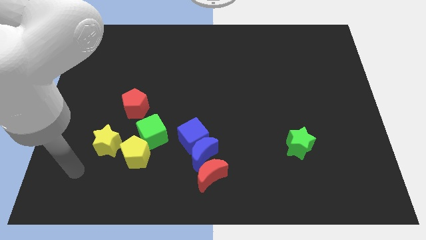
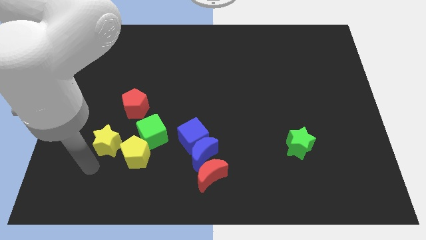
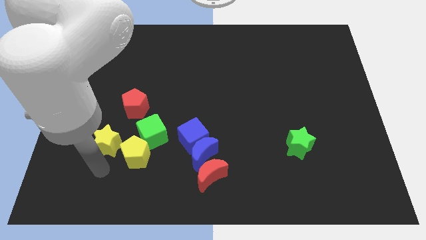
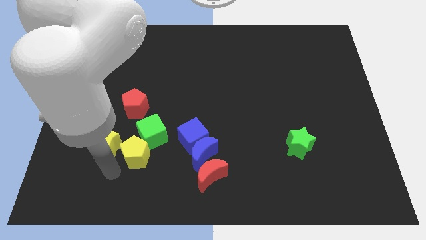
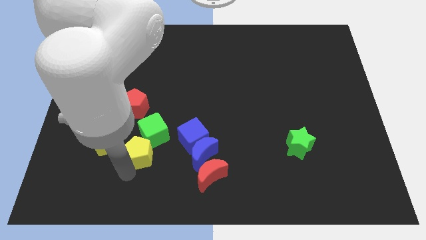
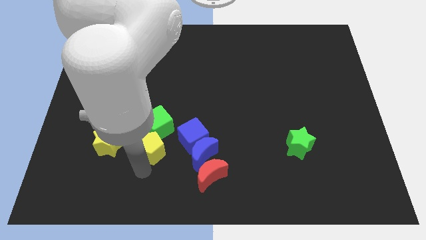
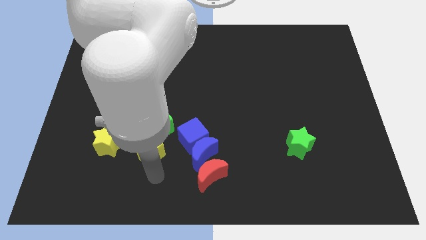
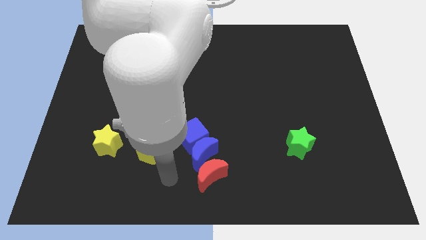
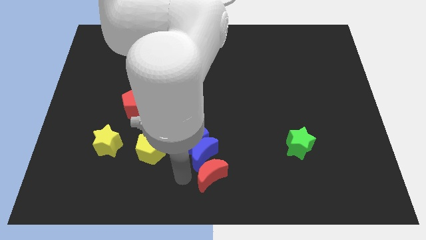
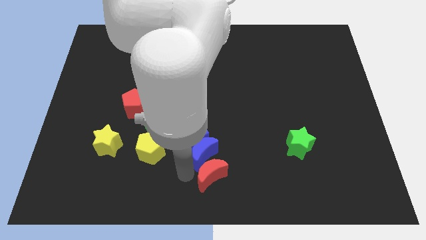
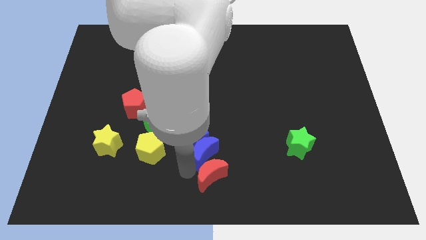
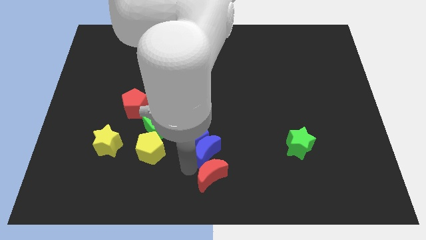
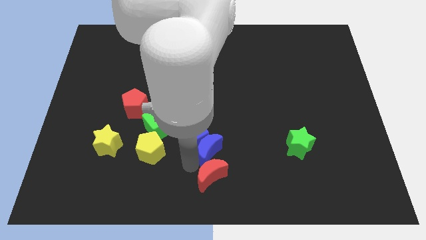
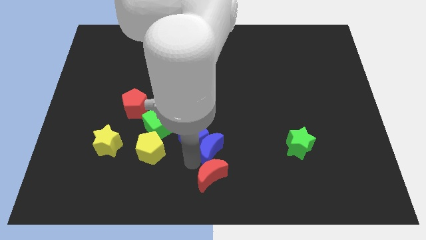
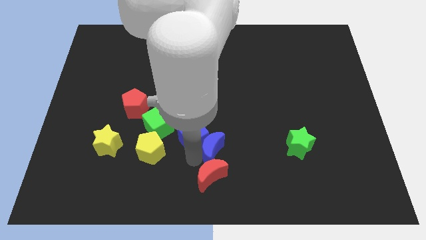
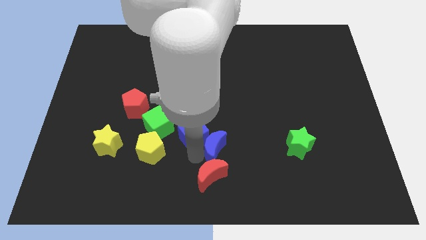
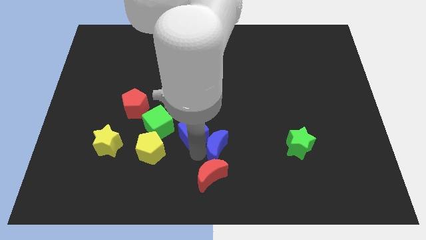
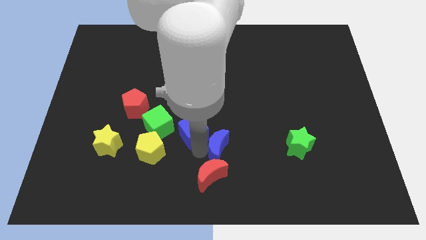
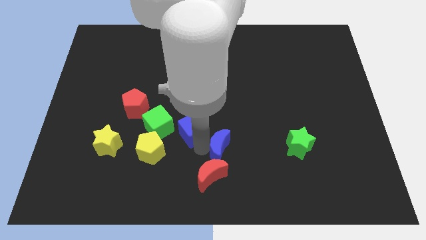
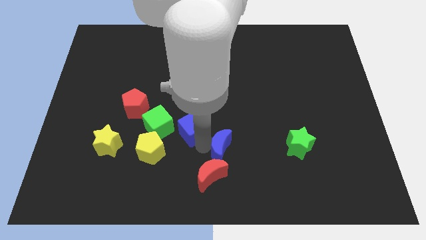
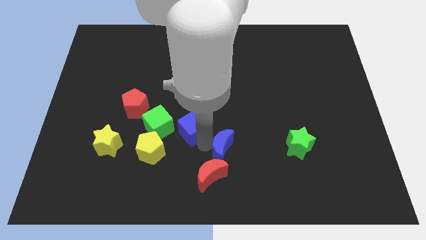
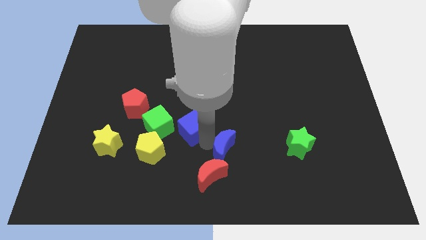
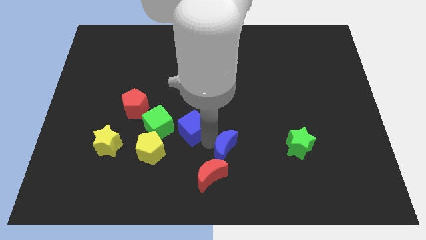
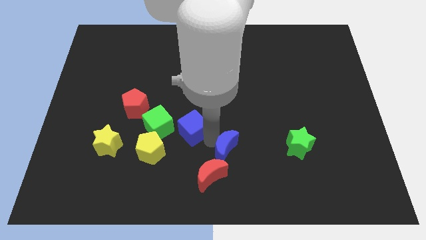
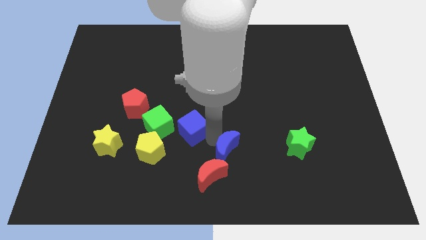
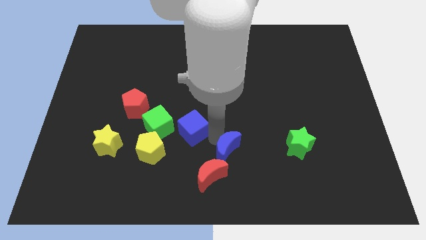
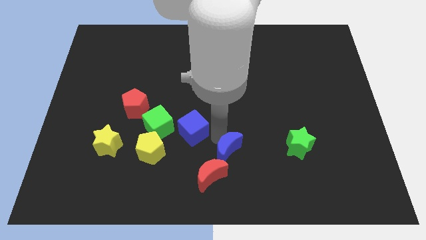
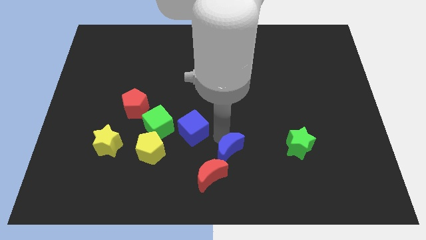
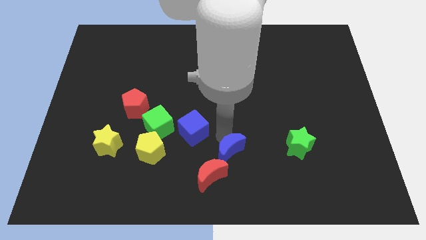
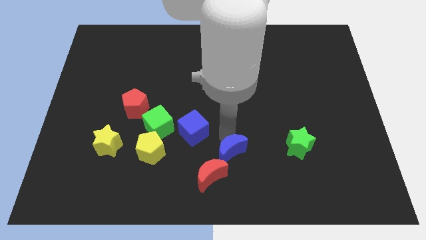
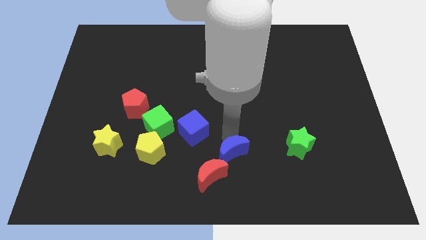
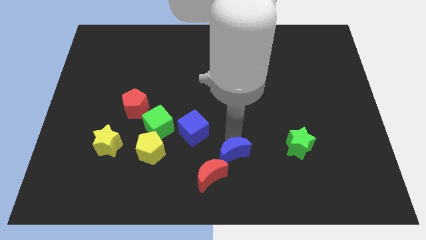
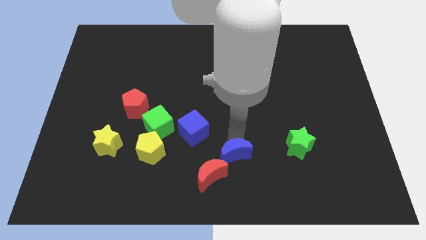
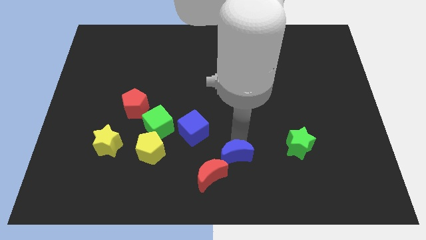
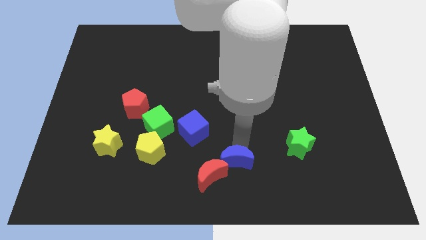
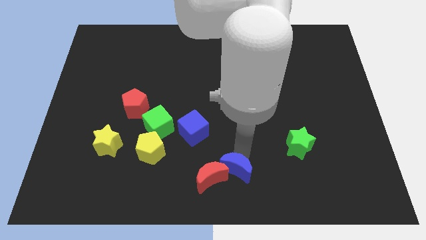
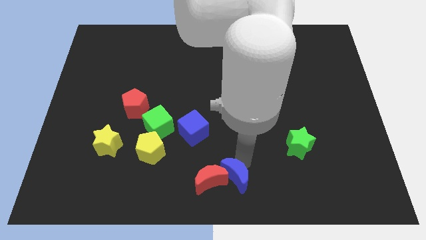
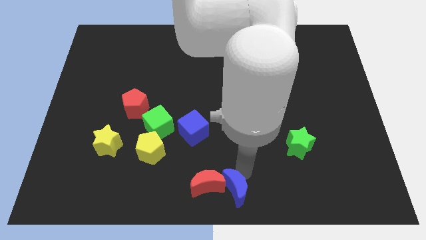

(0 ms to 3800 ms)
move the blue moon away from the blue cube and red moon

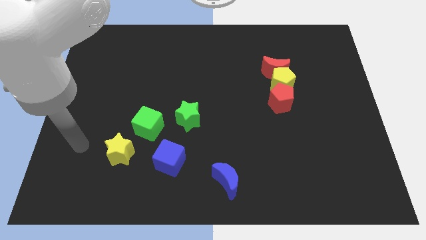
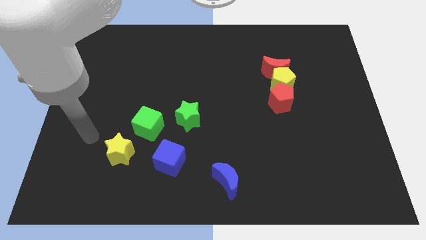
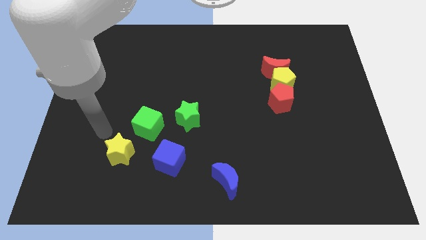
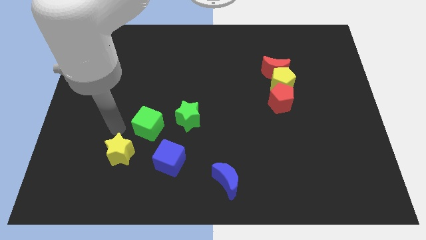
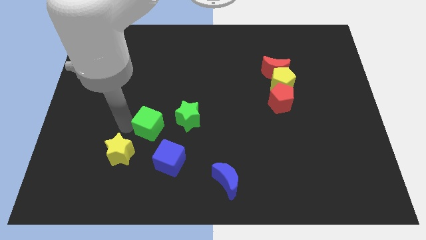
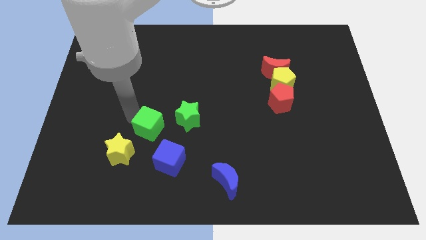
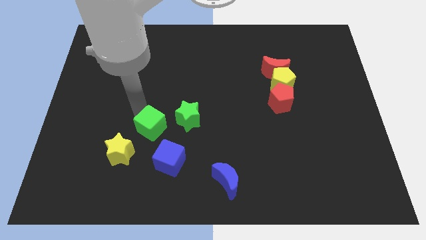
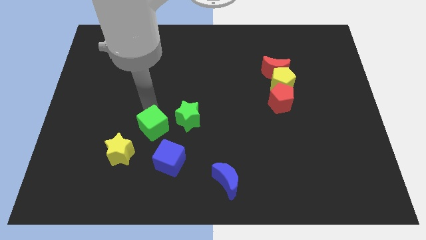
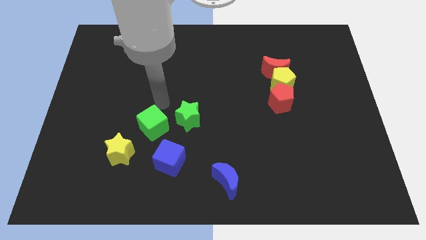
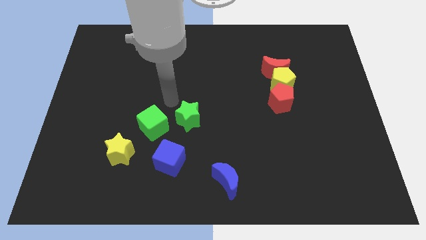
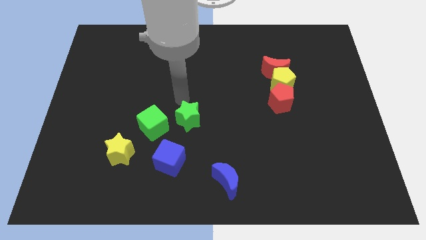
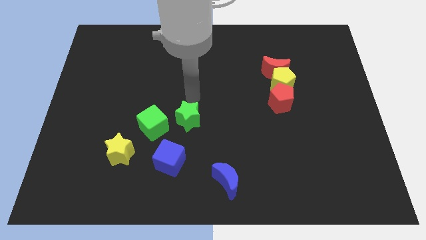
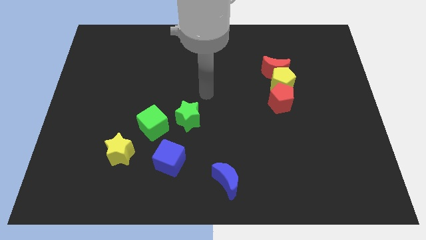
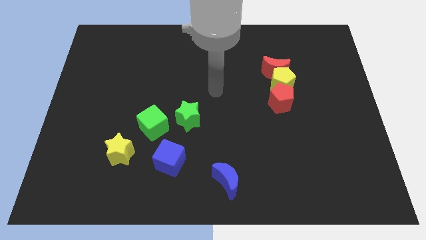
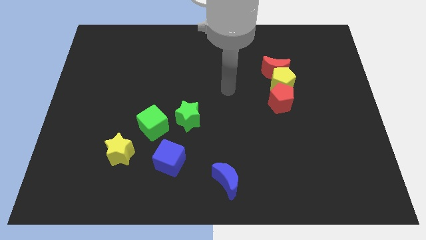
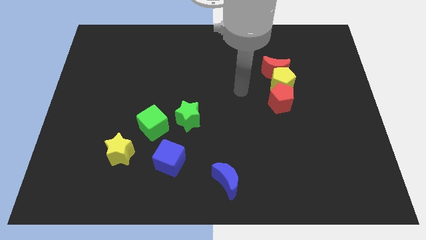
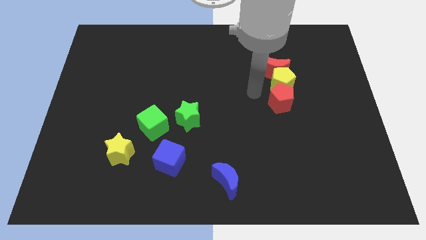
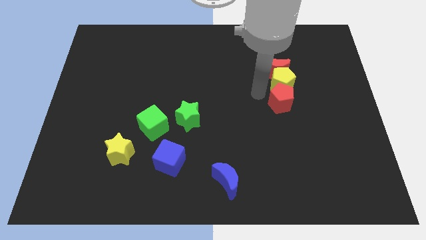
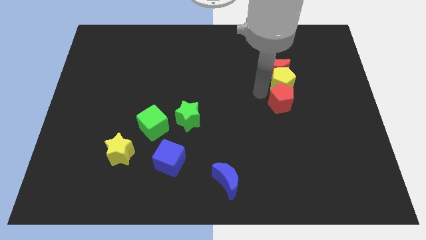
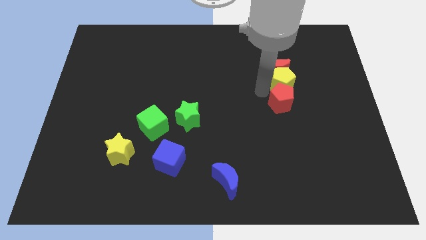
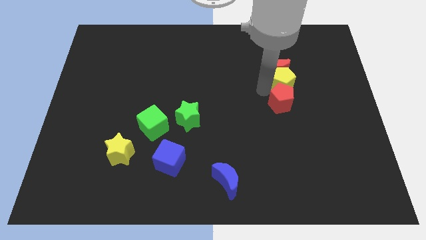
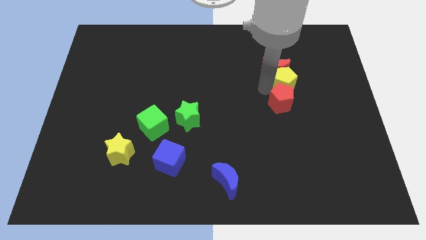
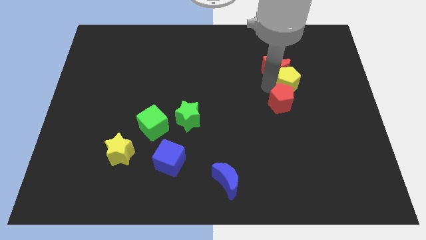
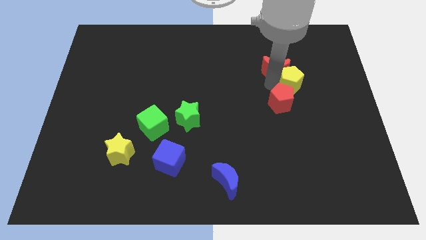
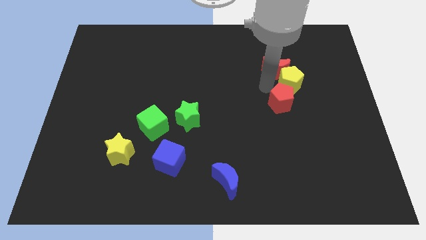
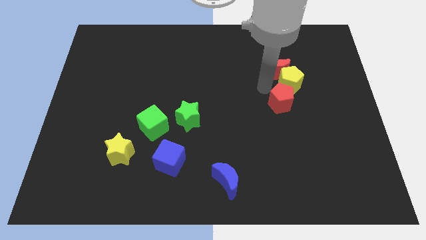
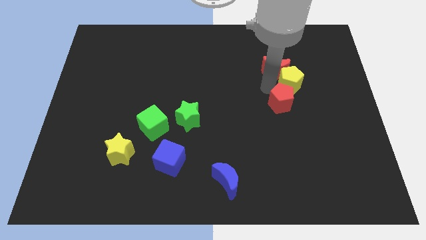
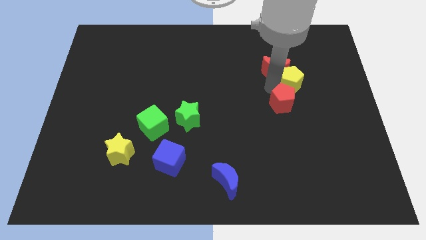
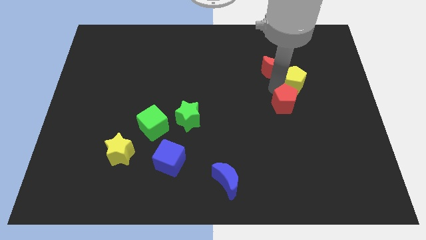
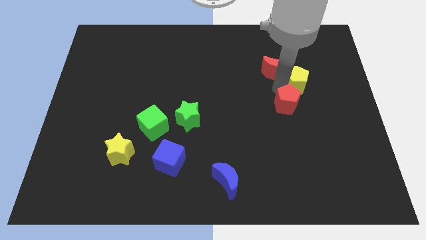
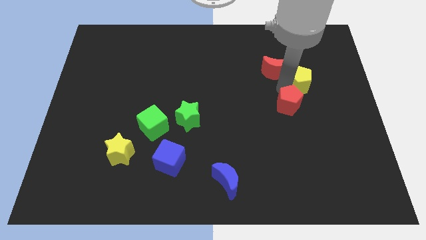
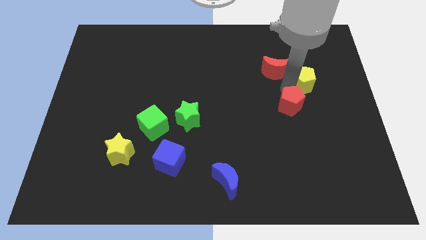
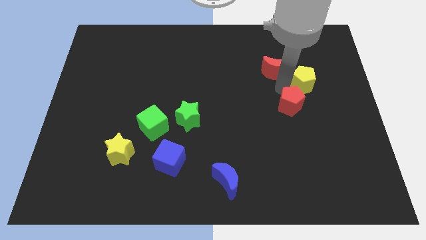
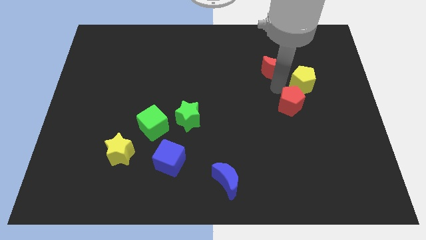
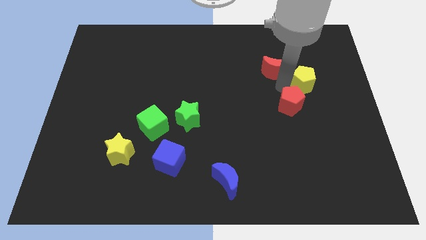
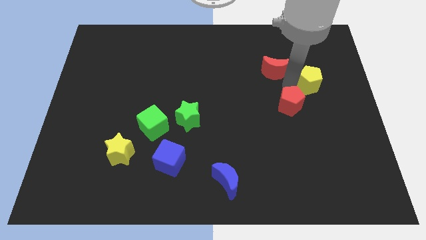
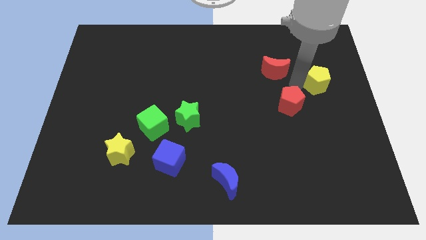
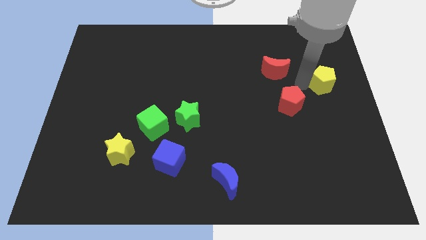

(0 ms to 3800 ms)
pull the yellow pentagon apart from the red moon and red pentagon

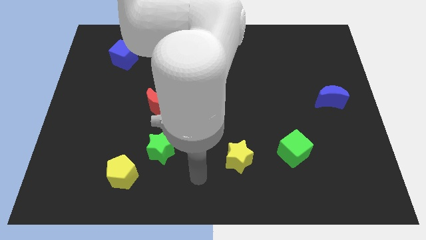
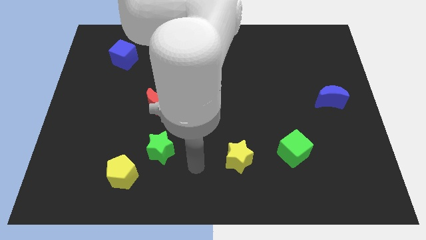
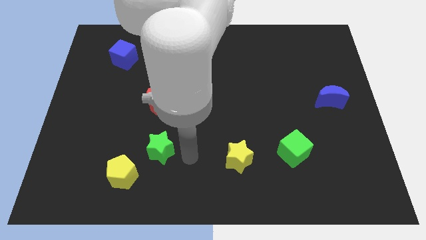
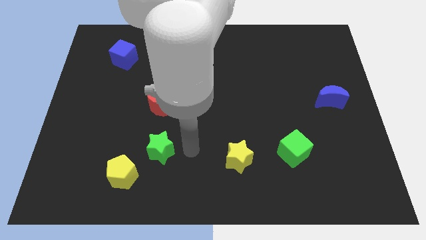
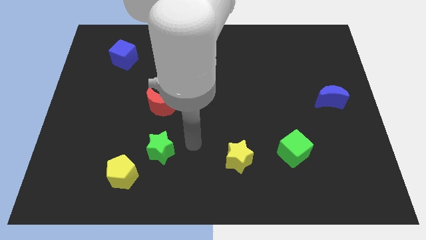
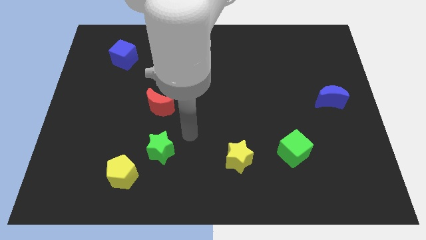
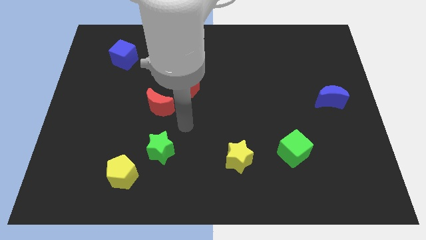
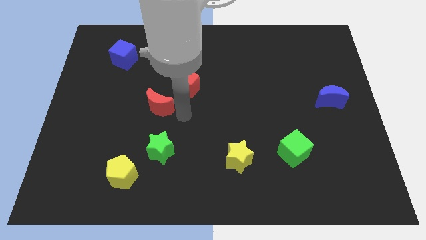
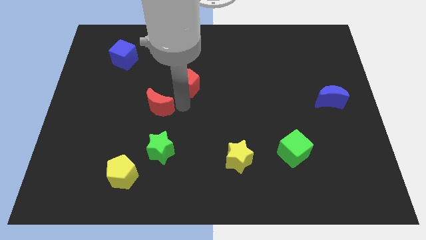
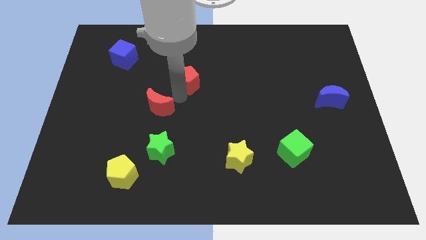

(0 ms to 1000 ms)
pull the red moon apart from the red pentagon

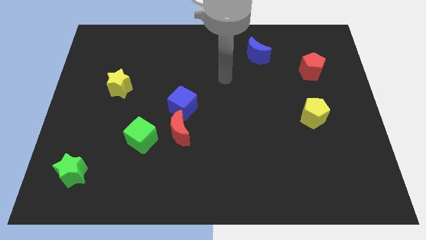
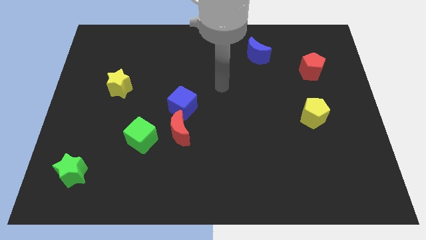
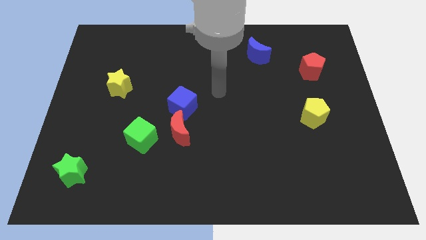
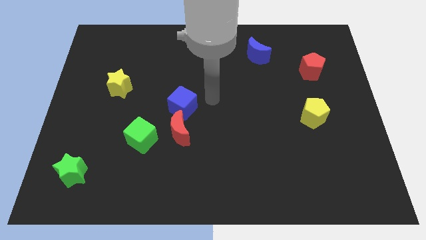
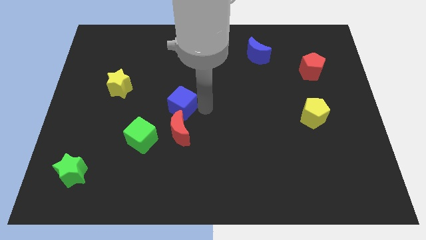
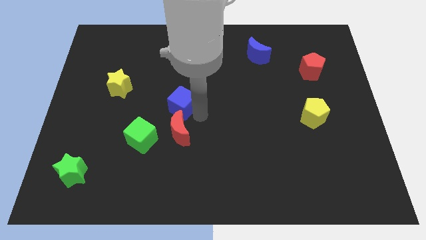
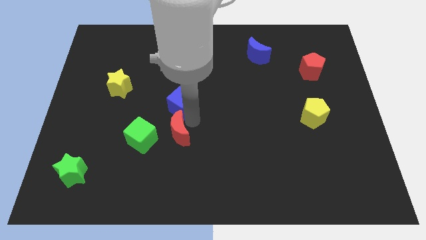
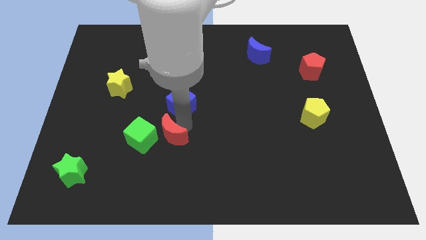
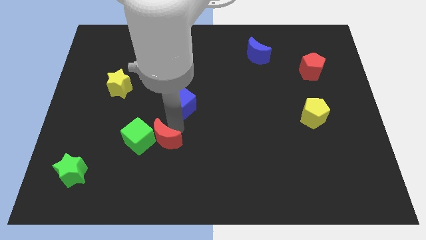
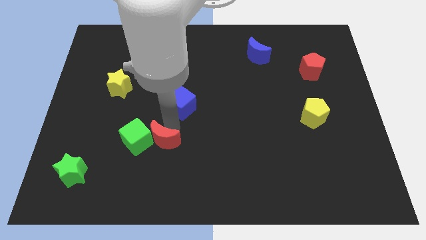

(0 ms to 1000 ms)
pull the blue cube apart from the red moon
